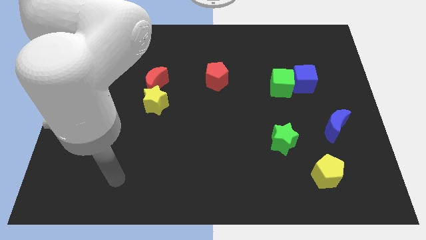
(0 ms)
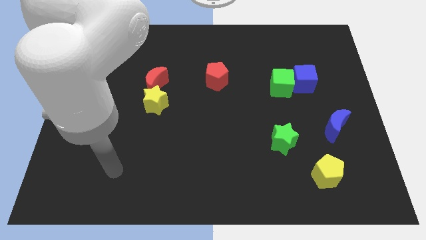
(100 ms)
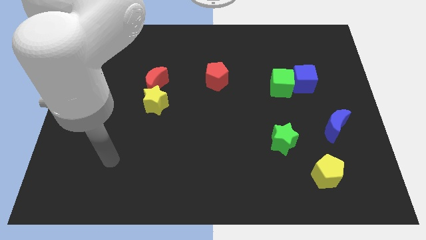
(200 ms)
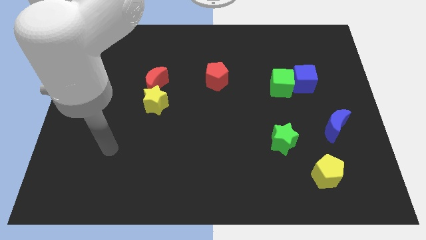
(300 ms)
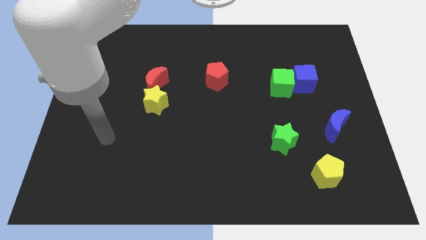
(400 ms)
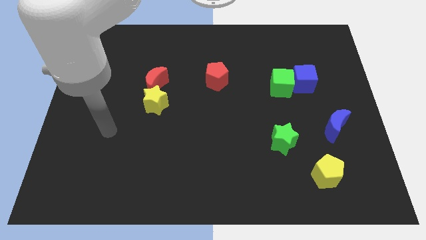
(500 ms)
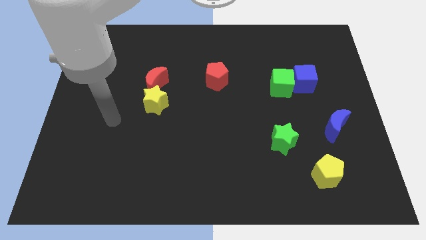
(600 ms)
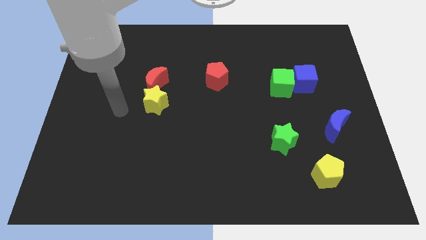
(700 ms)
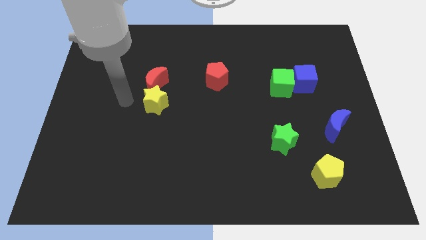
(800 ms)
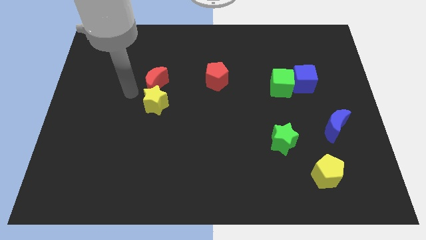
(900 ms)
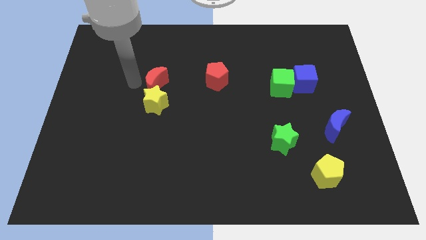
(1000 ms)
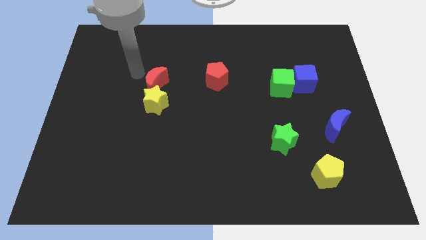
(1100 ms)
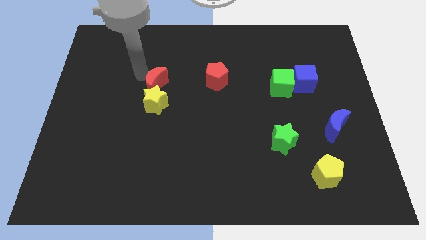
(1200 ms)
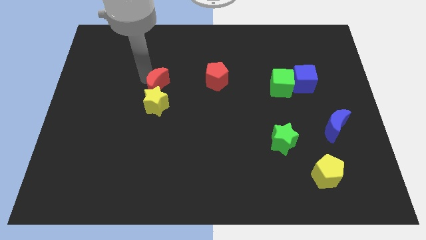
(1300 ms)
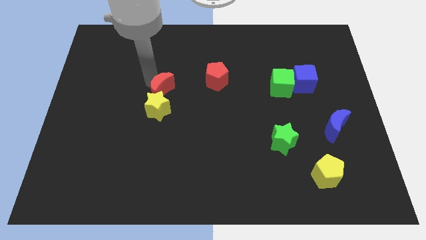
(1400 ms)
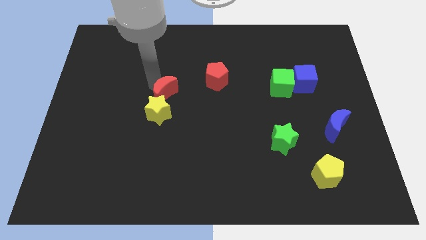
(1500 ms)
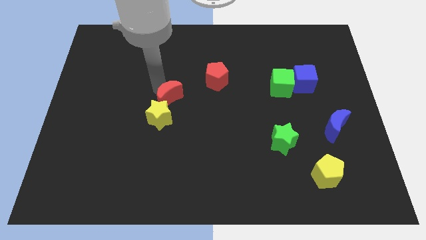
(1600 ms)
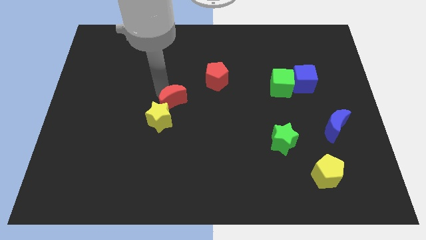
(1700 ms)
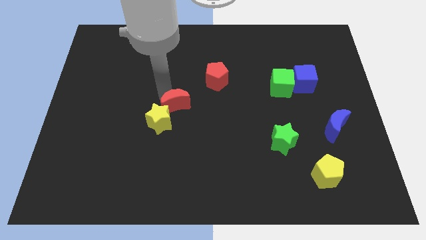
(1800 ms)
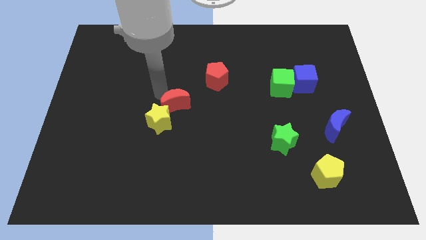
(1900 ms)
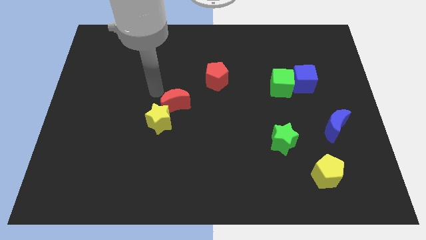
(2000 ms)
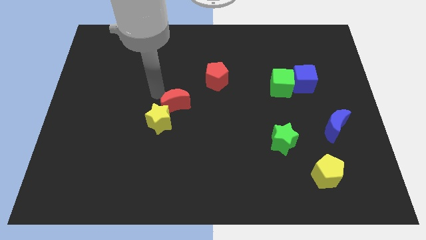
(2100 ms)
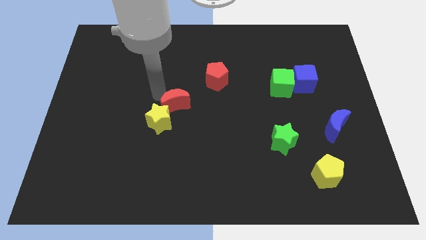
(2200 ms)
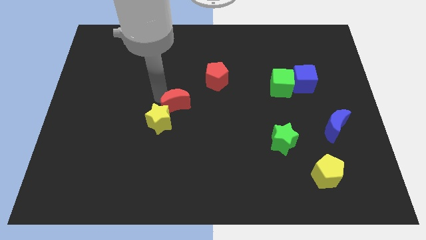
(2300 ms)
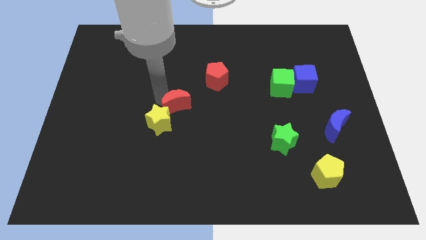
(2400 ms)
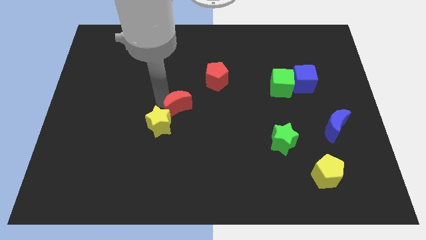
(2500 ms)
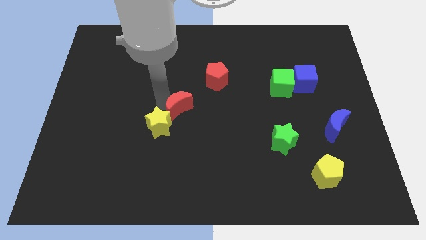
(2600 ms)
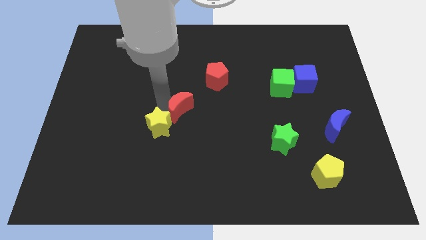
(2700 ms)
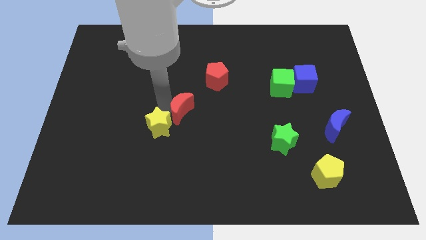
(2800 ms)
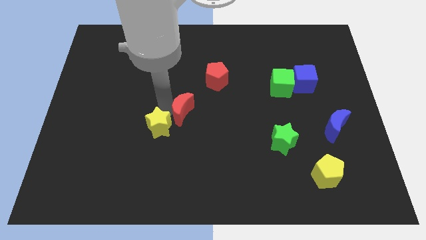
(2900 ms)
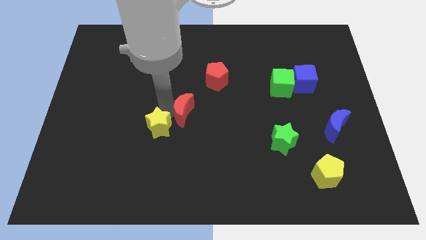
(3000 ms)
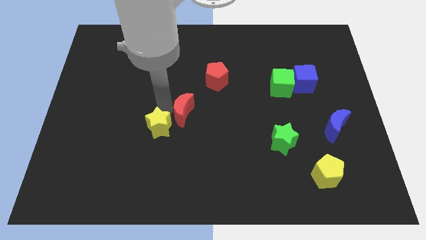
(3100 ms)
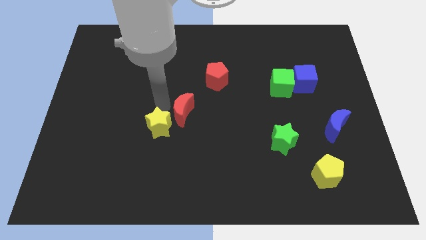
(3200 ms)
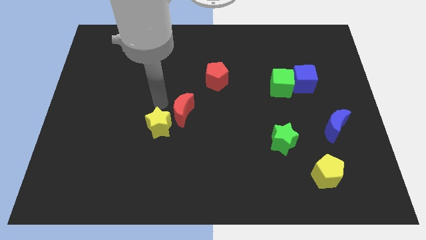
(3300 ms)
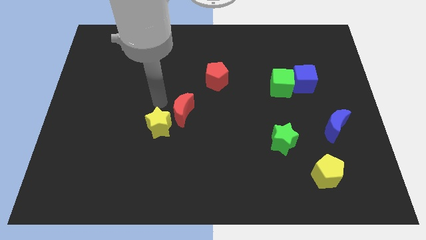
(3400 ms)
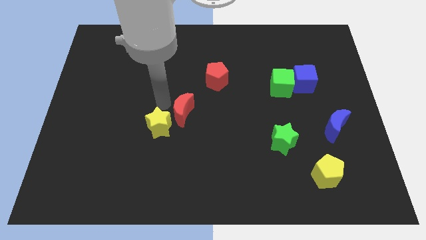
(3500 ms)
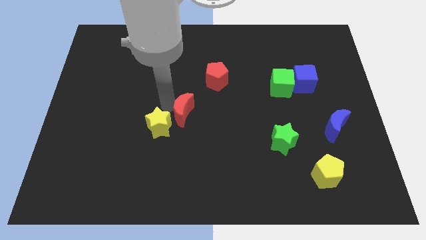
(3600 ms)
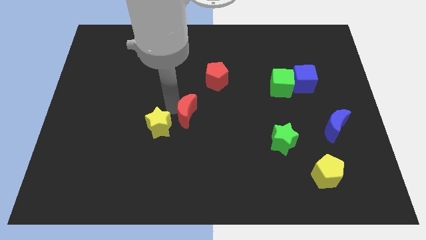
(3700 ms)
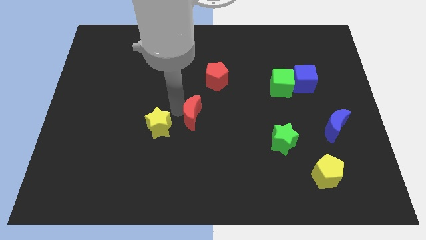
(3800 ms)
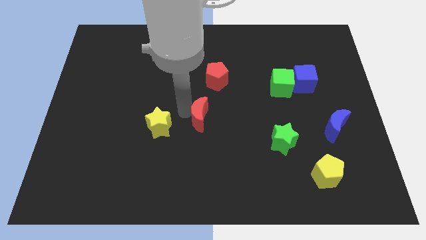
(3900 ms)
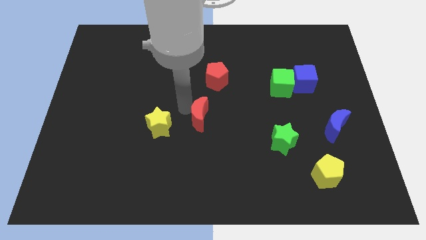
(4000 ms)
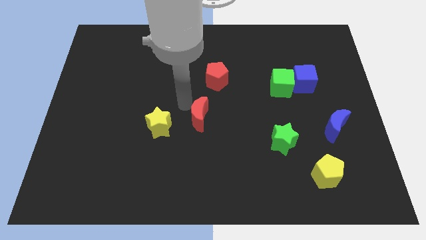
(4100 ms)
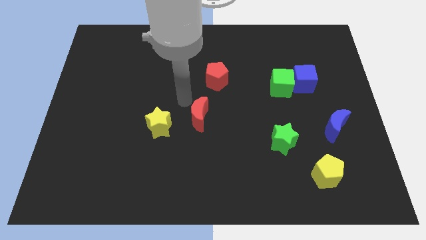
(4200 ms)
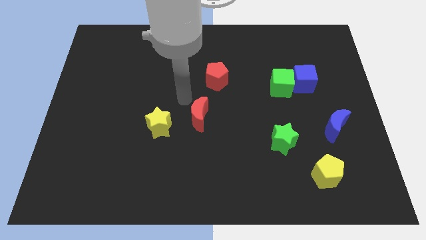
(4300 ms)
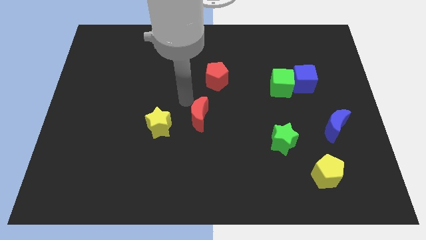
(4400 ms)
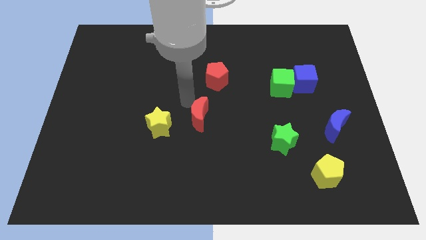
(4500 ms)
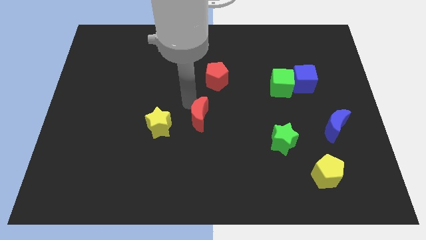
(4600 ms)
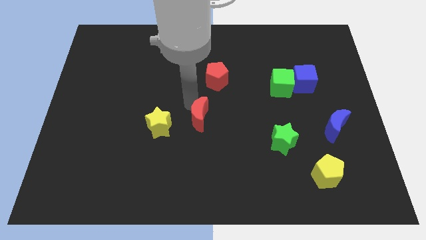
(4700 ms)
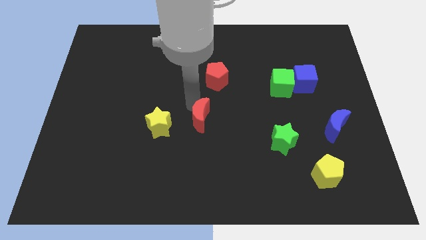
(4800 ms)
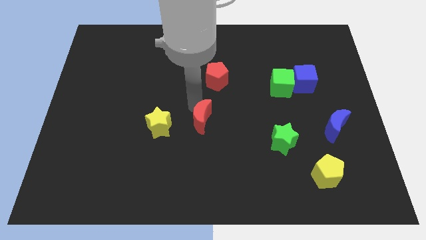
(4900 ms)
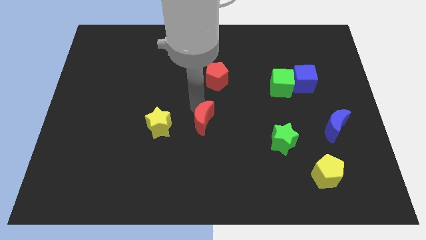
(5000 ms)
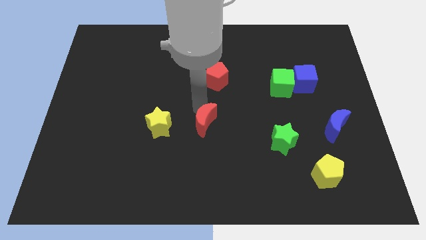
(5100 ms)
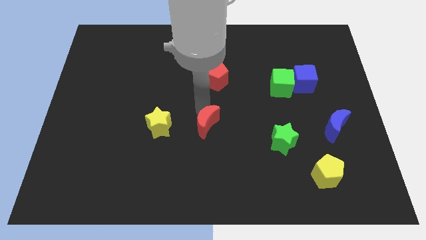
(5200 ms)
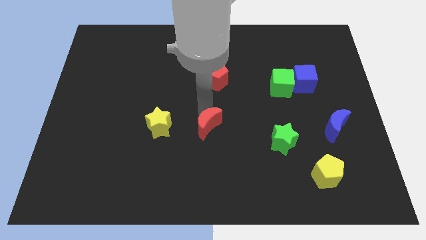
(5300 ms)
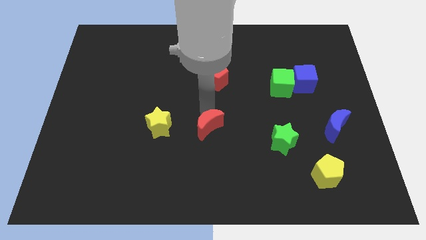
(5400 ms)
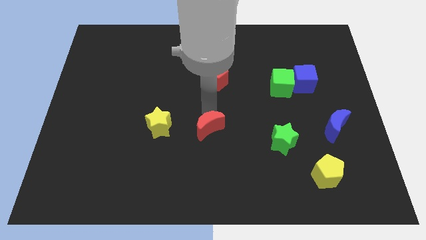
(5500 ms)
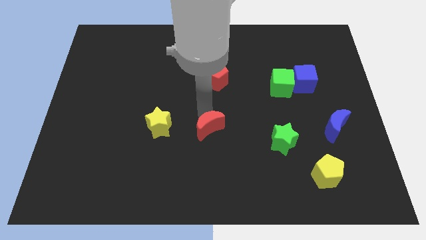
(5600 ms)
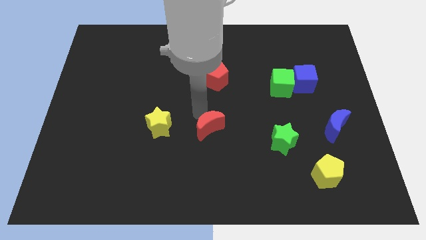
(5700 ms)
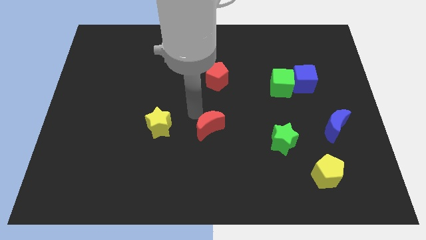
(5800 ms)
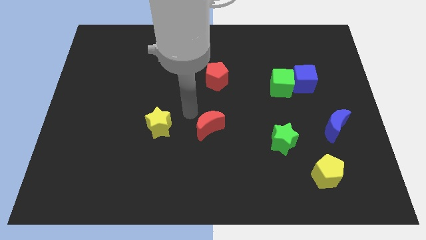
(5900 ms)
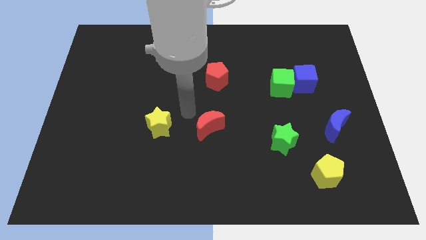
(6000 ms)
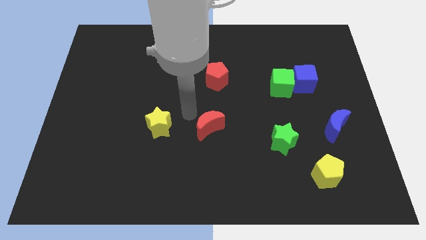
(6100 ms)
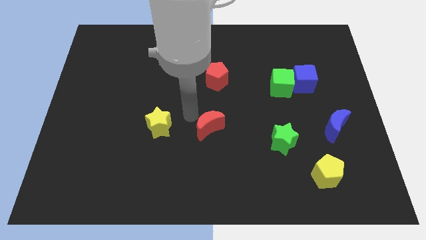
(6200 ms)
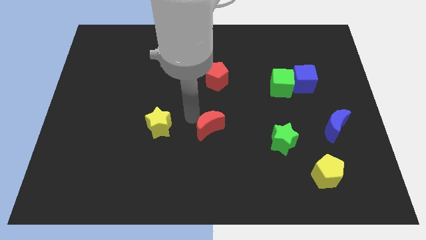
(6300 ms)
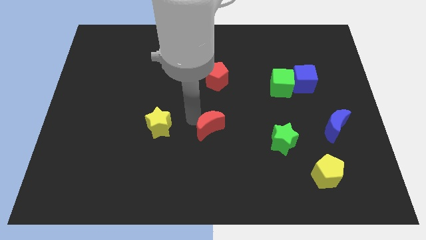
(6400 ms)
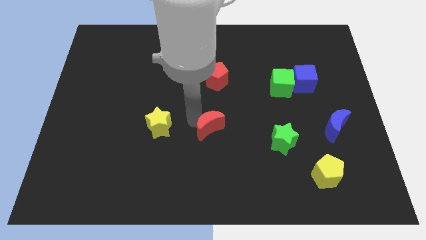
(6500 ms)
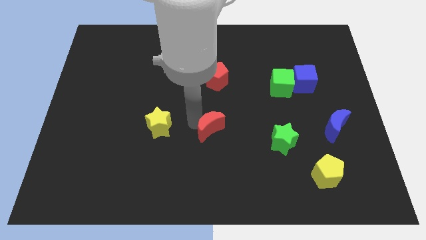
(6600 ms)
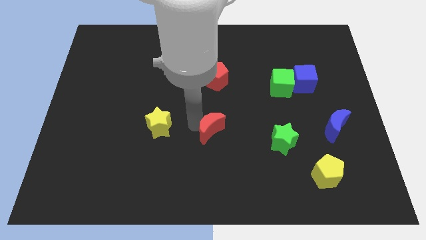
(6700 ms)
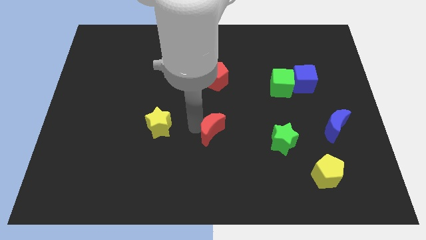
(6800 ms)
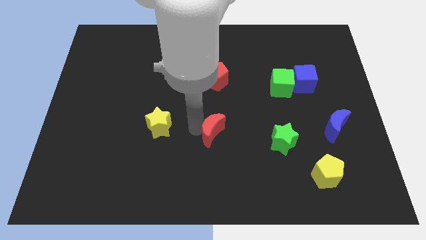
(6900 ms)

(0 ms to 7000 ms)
push the red moon down and to the right diagonally

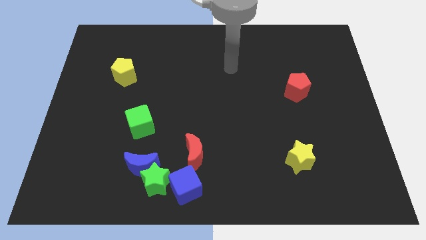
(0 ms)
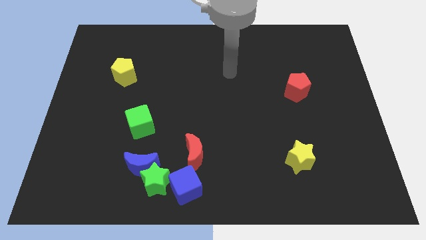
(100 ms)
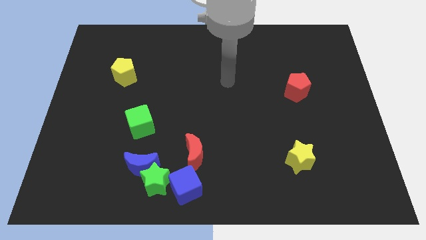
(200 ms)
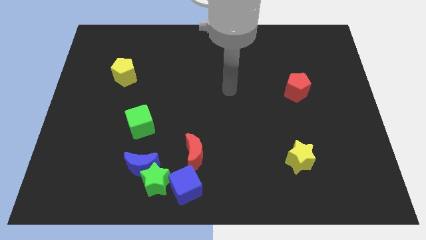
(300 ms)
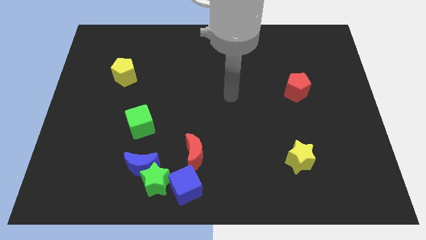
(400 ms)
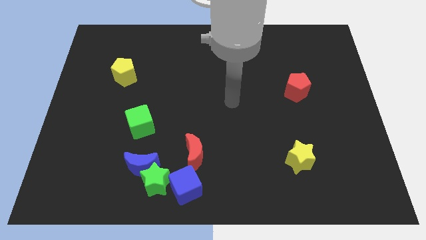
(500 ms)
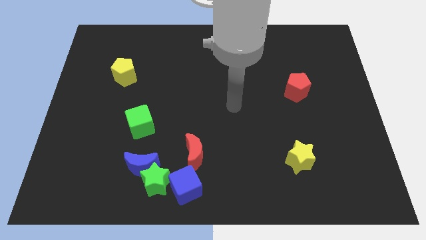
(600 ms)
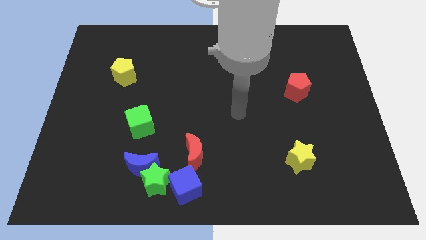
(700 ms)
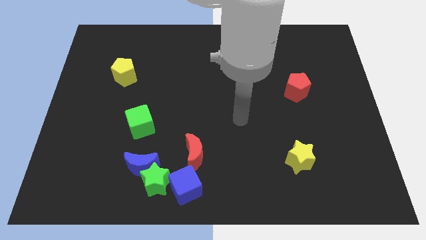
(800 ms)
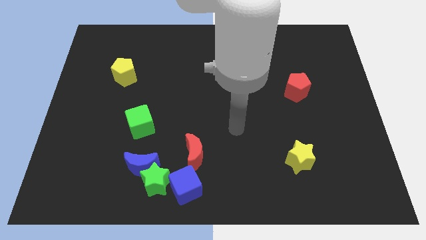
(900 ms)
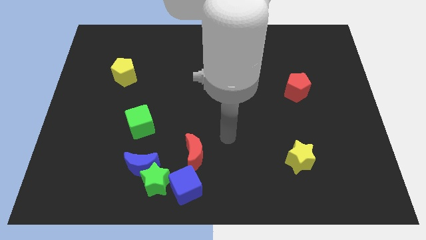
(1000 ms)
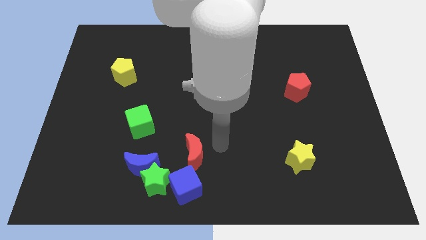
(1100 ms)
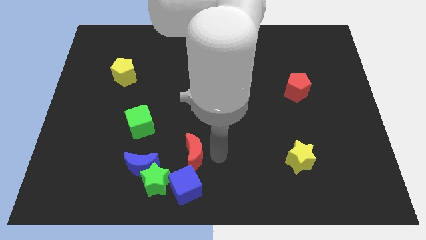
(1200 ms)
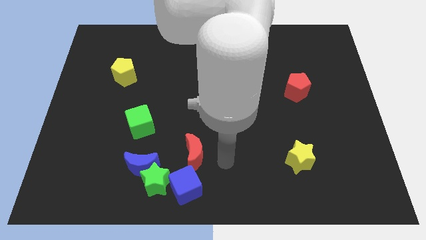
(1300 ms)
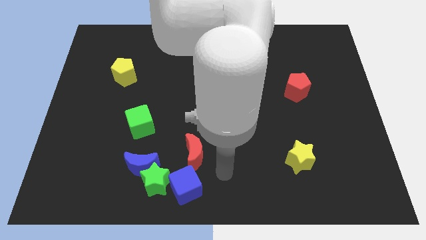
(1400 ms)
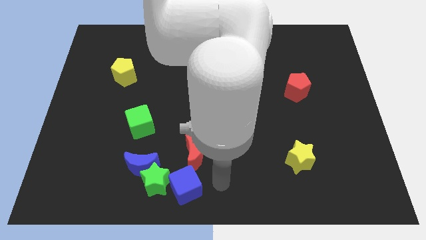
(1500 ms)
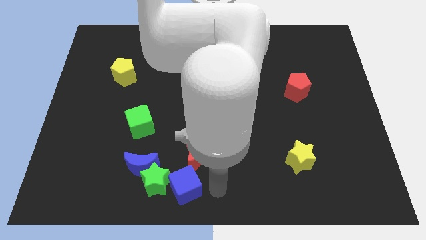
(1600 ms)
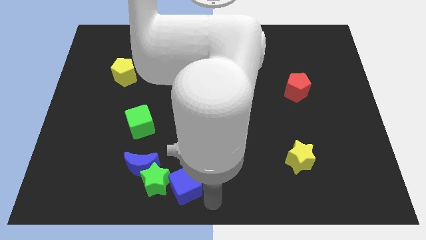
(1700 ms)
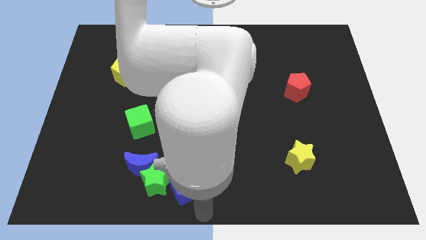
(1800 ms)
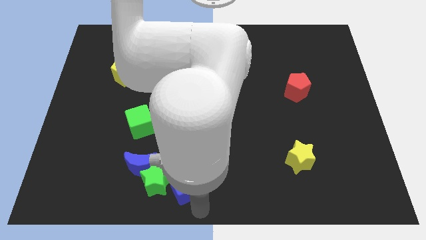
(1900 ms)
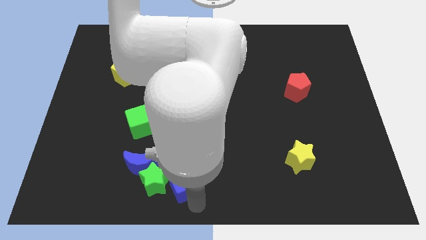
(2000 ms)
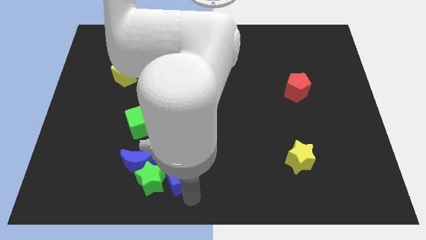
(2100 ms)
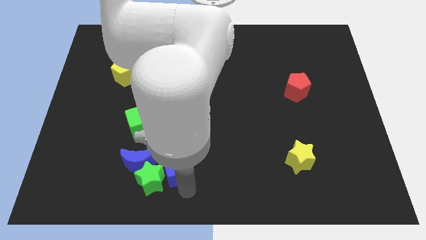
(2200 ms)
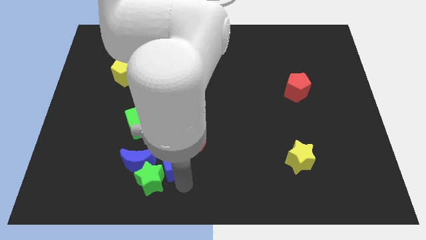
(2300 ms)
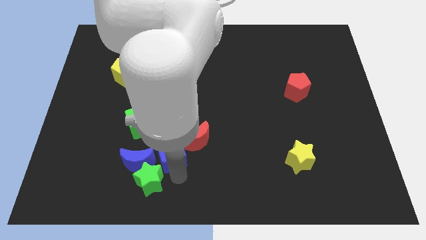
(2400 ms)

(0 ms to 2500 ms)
slightly slide the blue cube up
